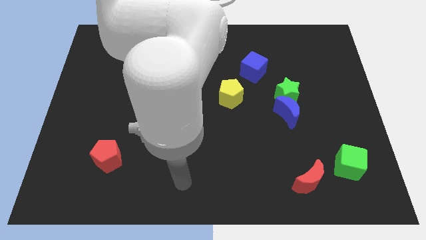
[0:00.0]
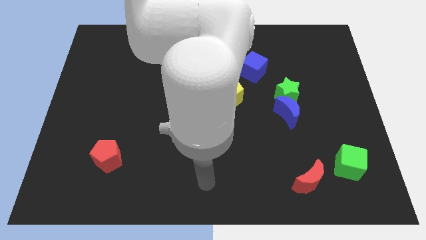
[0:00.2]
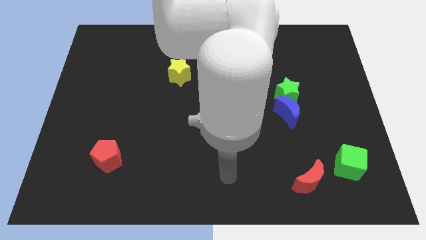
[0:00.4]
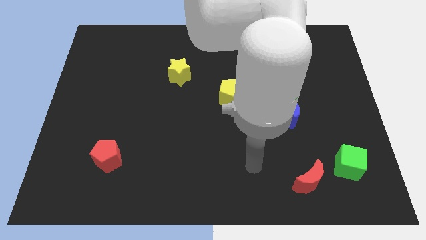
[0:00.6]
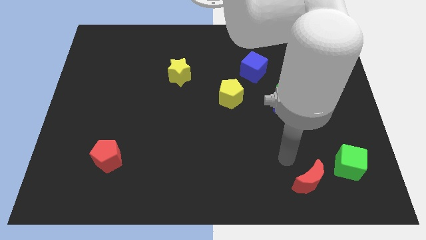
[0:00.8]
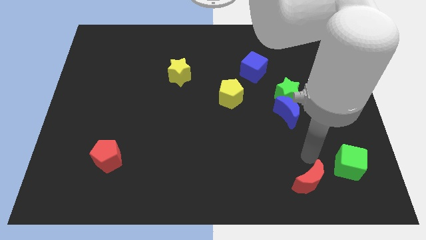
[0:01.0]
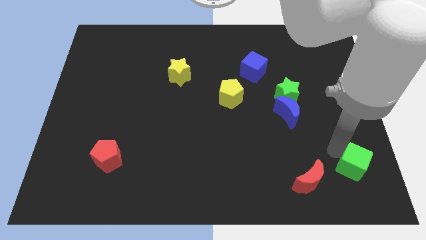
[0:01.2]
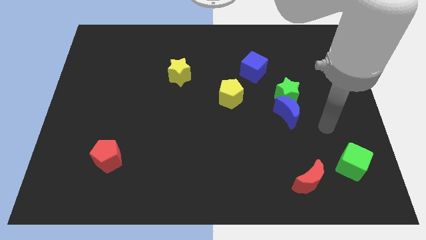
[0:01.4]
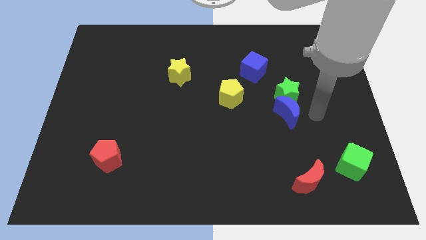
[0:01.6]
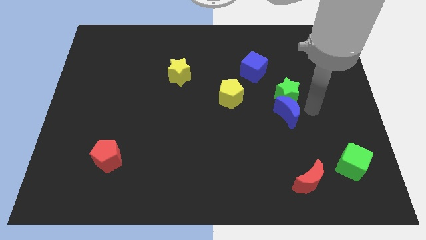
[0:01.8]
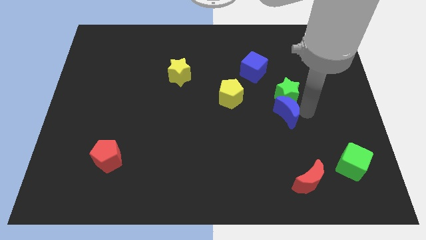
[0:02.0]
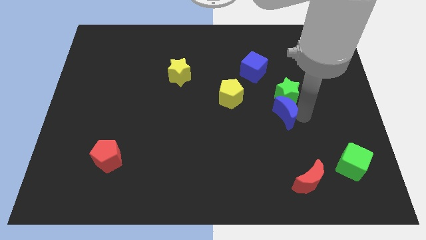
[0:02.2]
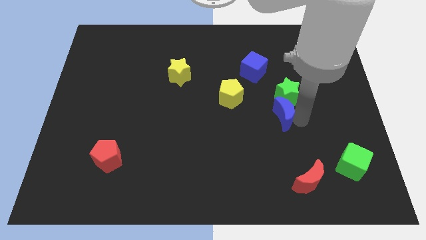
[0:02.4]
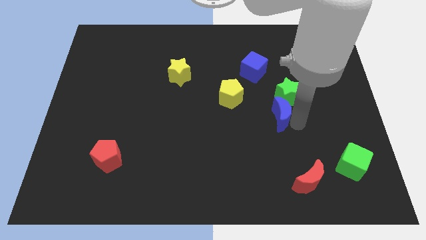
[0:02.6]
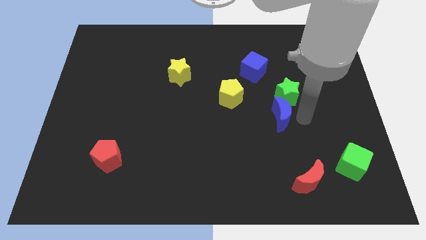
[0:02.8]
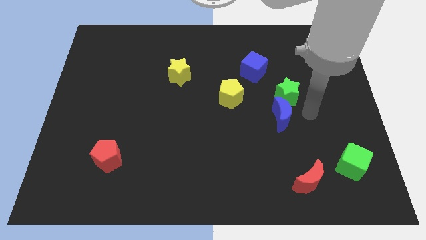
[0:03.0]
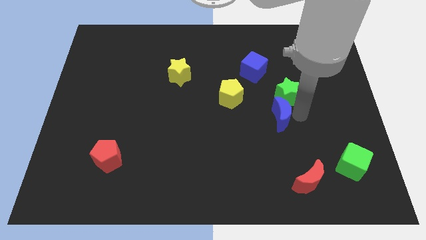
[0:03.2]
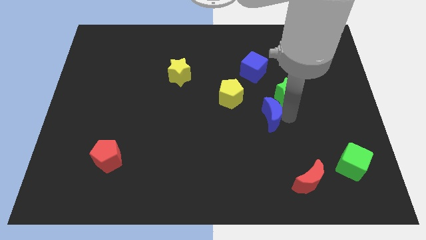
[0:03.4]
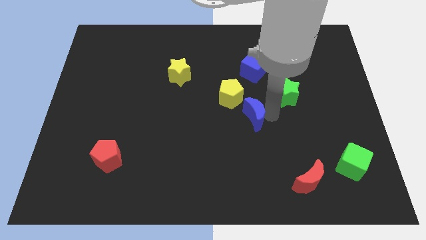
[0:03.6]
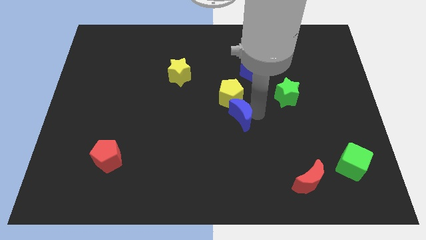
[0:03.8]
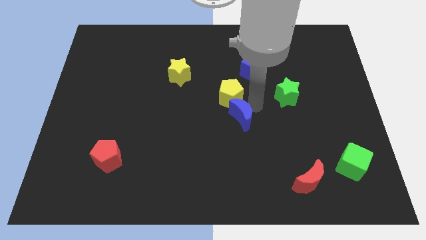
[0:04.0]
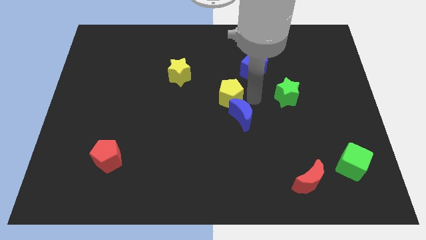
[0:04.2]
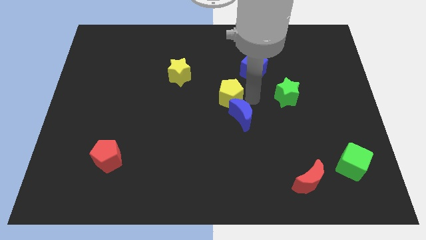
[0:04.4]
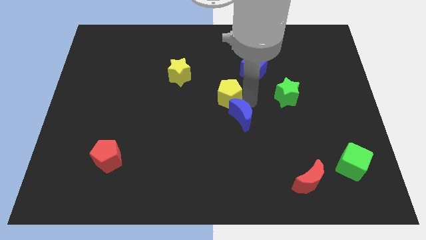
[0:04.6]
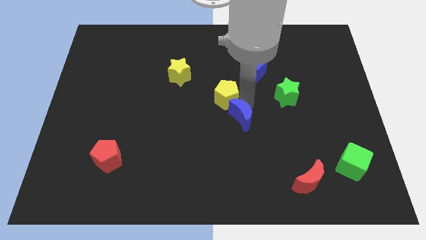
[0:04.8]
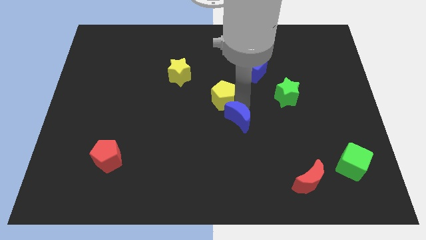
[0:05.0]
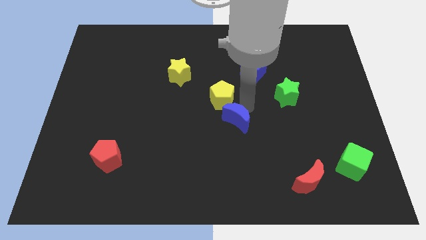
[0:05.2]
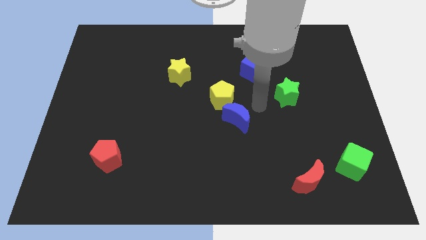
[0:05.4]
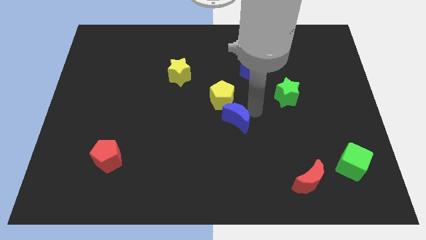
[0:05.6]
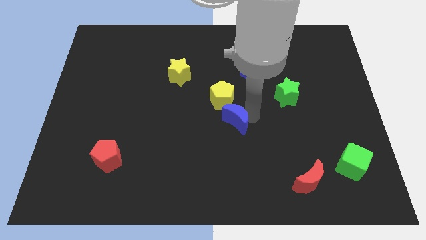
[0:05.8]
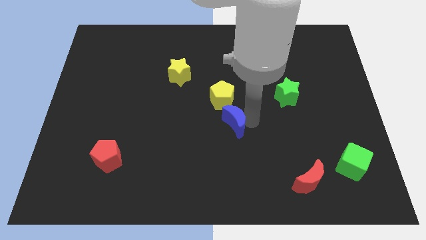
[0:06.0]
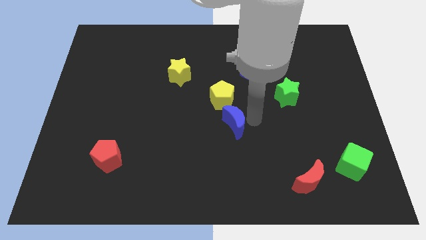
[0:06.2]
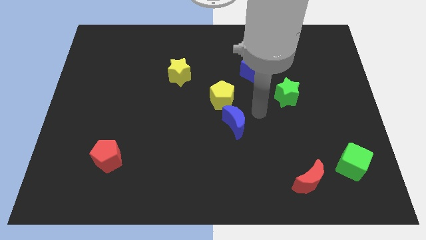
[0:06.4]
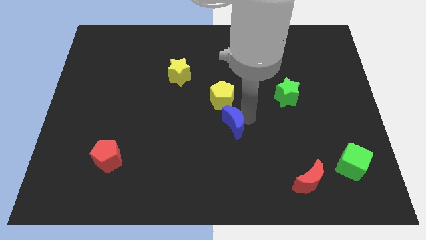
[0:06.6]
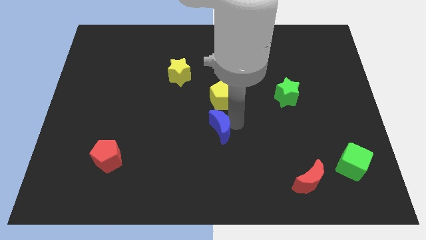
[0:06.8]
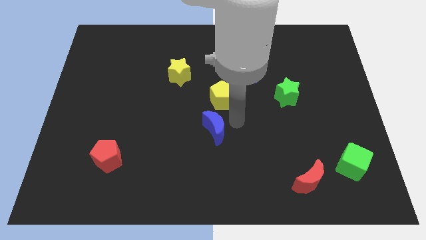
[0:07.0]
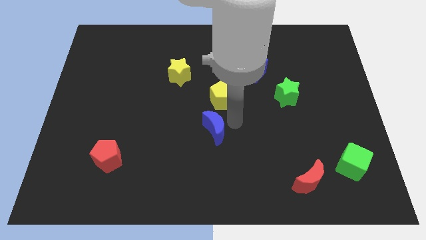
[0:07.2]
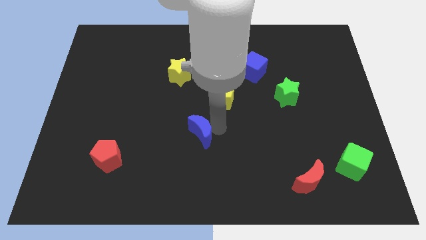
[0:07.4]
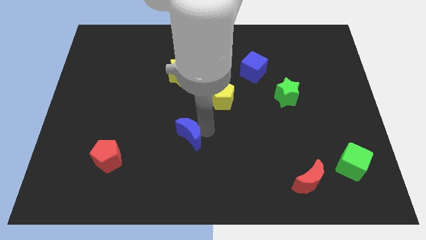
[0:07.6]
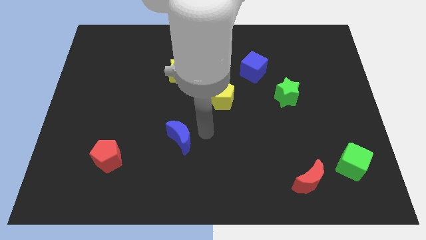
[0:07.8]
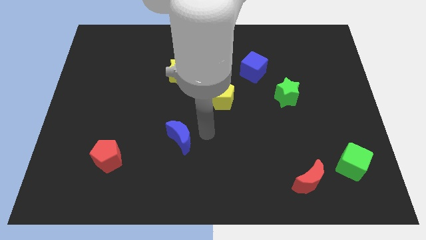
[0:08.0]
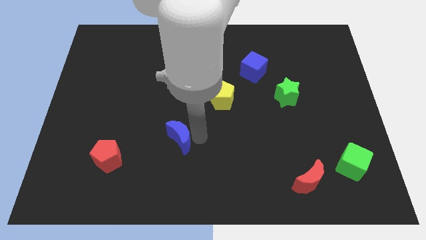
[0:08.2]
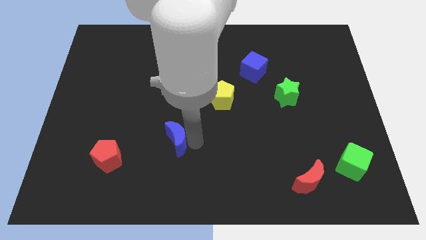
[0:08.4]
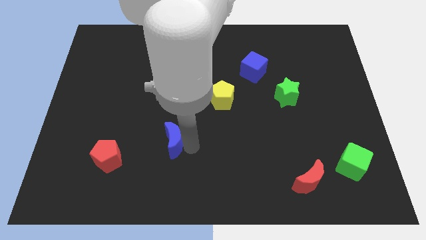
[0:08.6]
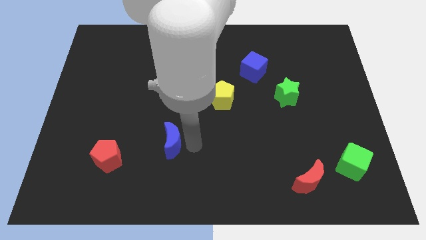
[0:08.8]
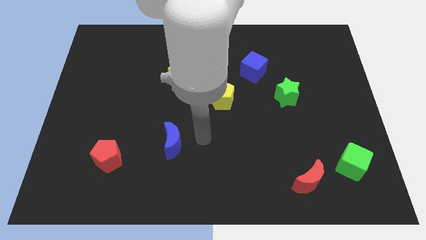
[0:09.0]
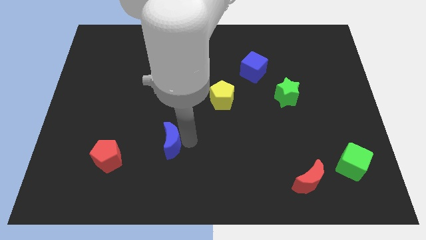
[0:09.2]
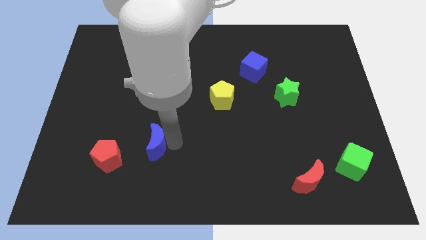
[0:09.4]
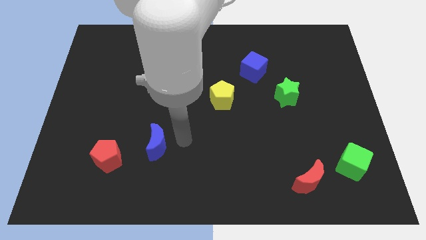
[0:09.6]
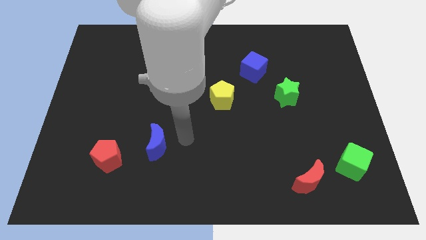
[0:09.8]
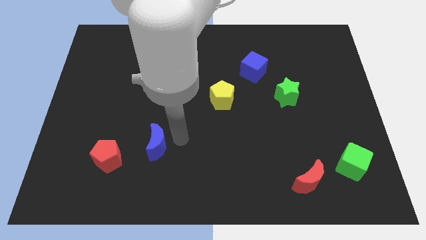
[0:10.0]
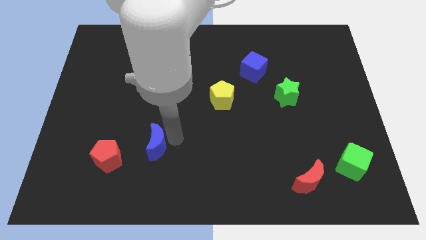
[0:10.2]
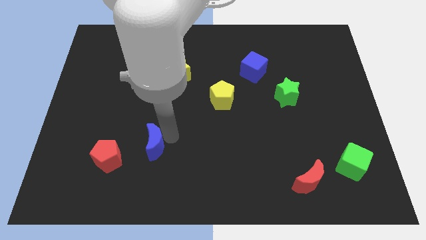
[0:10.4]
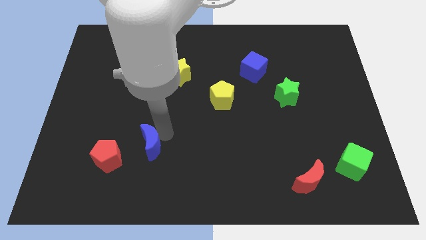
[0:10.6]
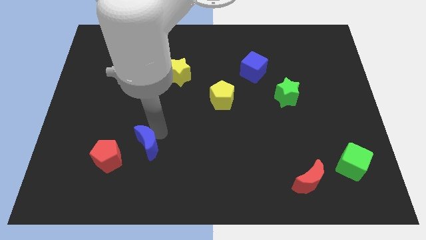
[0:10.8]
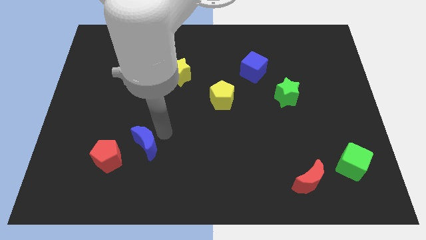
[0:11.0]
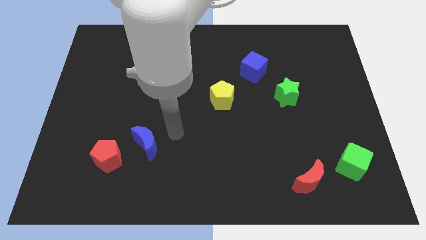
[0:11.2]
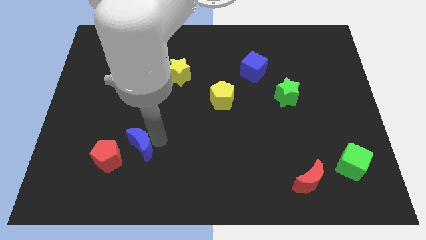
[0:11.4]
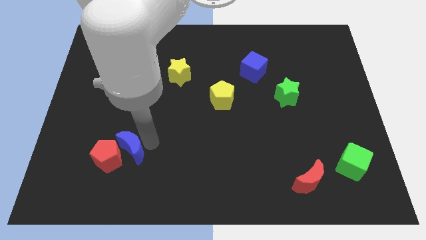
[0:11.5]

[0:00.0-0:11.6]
push the blue moon next to the red pentagon
